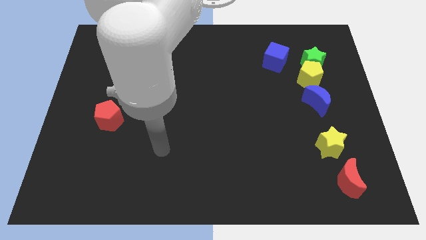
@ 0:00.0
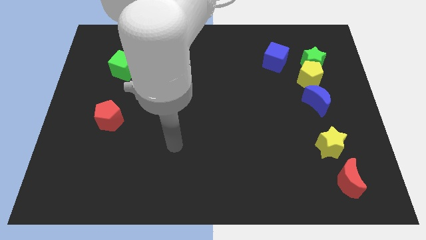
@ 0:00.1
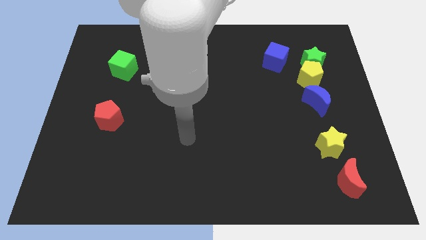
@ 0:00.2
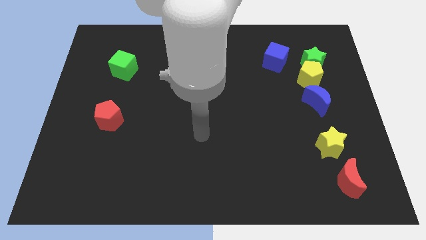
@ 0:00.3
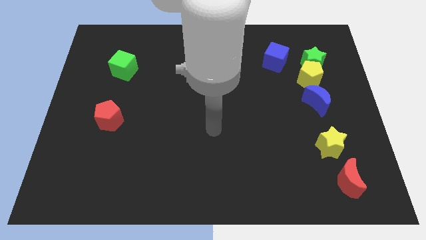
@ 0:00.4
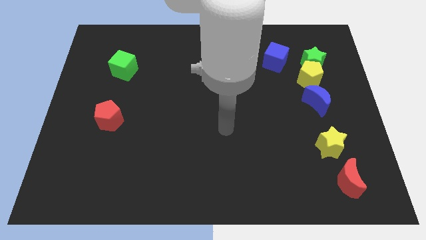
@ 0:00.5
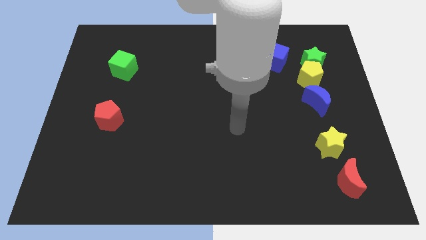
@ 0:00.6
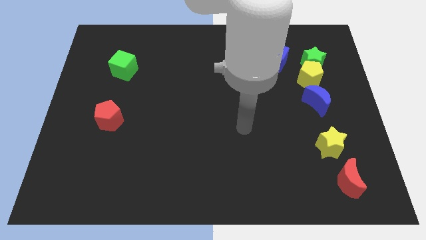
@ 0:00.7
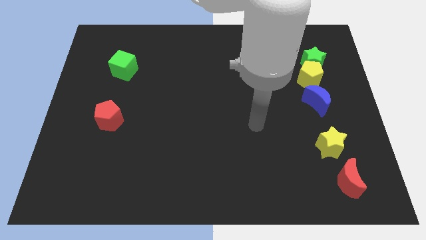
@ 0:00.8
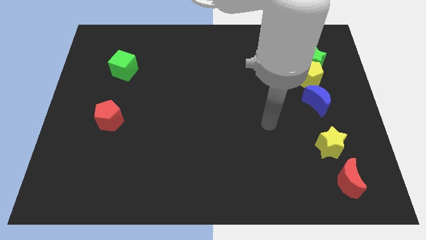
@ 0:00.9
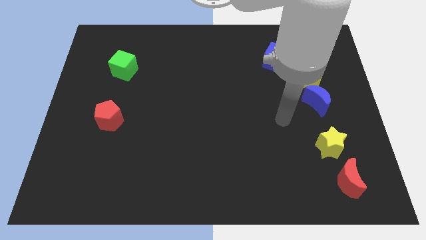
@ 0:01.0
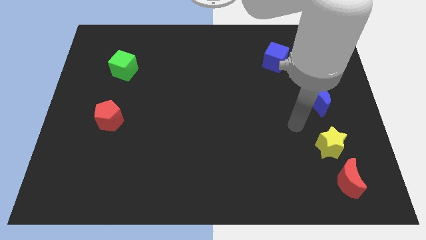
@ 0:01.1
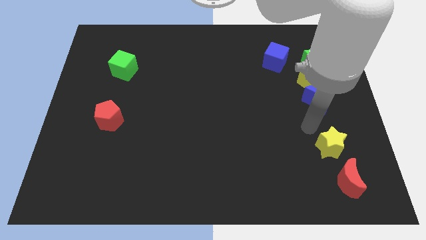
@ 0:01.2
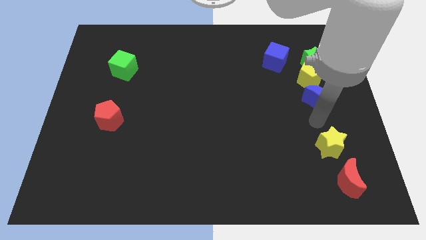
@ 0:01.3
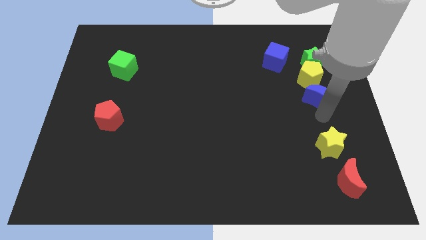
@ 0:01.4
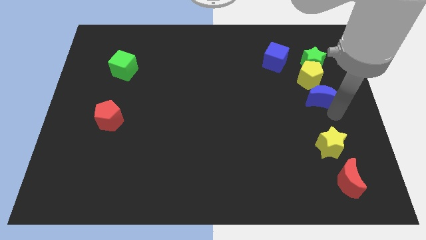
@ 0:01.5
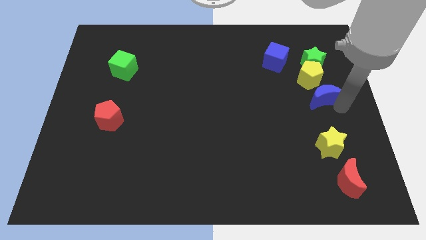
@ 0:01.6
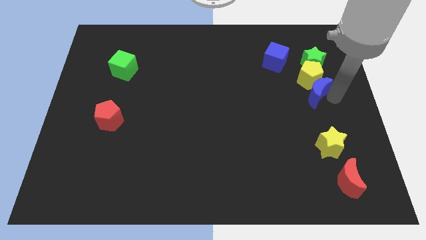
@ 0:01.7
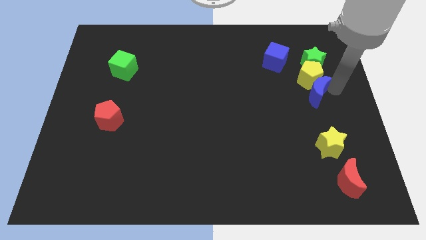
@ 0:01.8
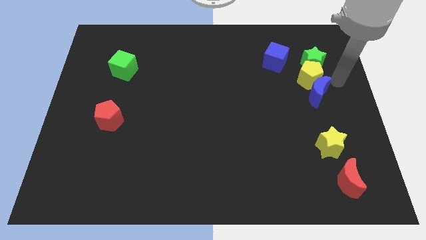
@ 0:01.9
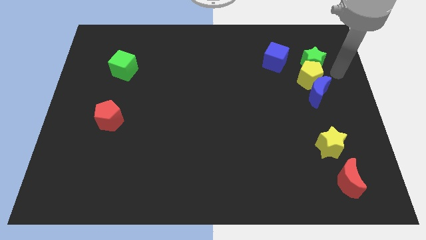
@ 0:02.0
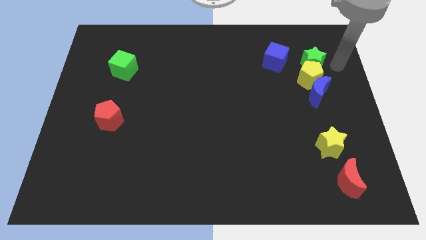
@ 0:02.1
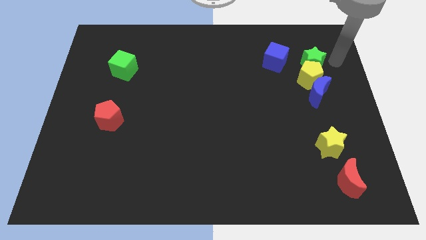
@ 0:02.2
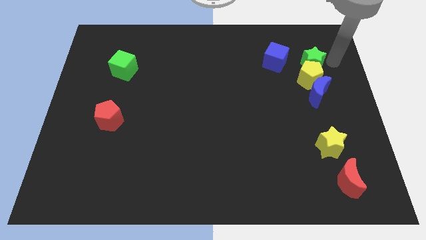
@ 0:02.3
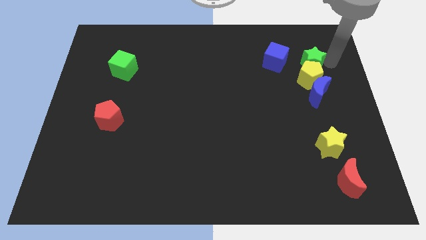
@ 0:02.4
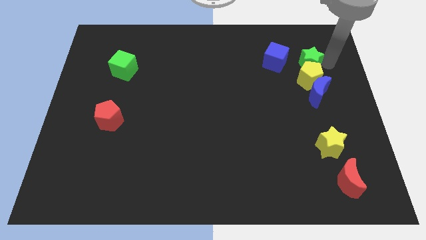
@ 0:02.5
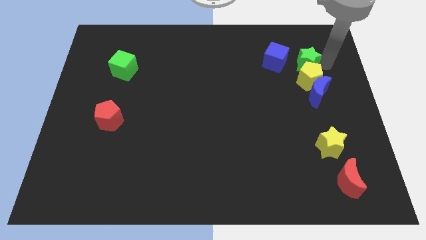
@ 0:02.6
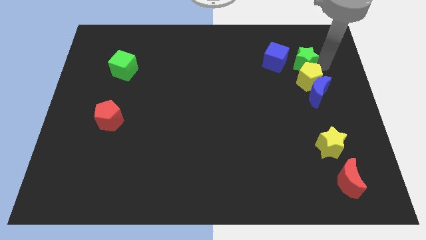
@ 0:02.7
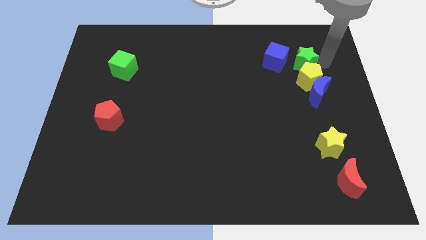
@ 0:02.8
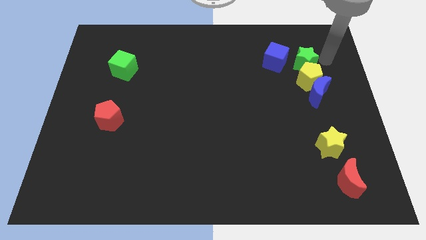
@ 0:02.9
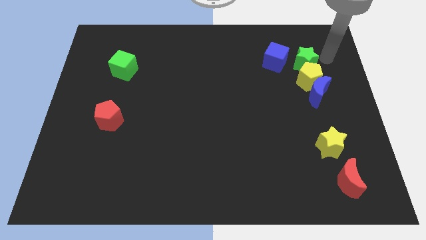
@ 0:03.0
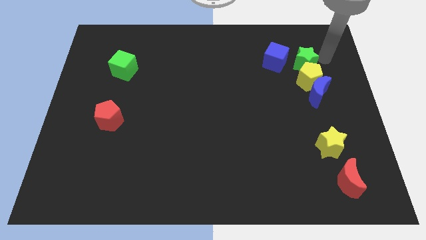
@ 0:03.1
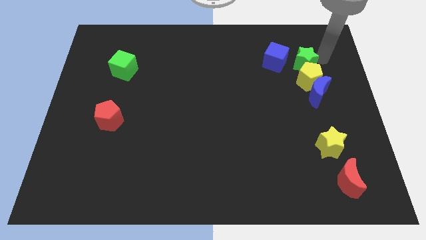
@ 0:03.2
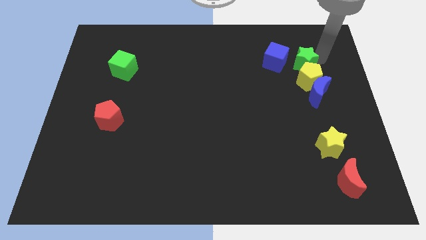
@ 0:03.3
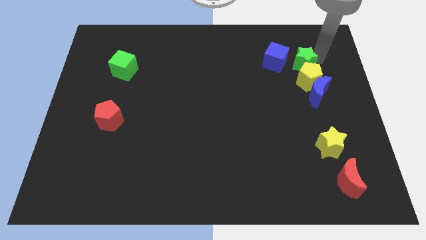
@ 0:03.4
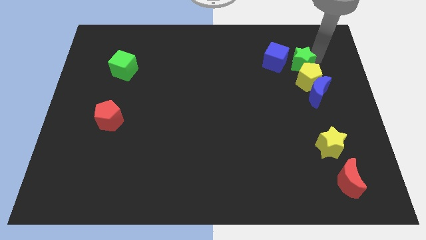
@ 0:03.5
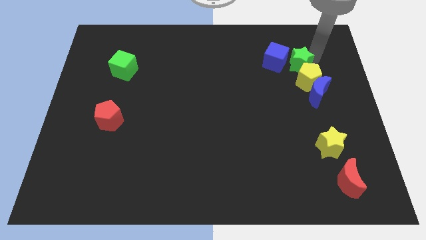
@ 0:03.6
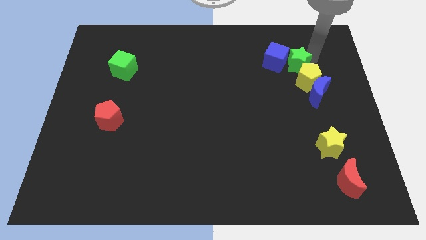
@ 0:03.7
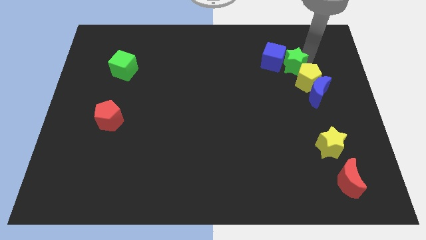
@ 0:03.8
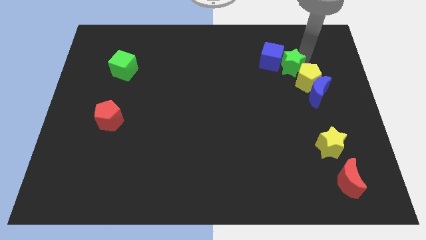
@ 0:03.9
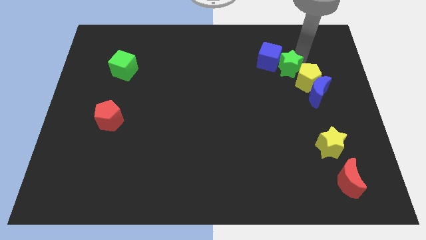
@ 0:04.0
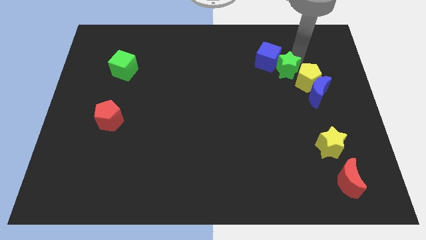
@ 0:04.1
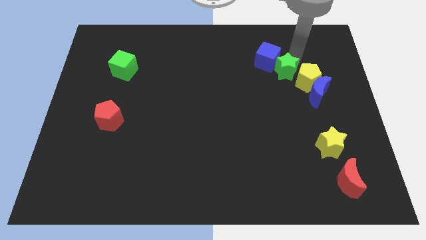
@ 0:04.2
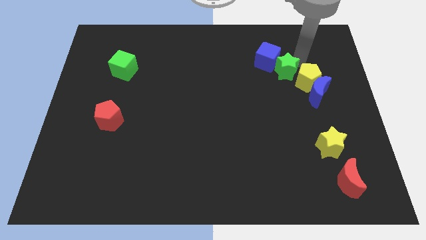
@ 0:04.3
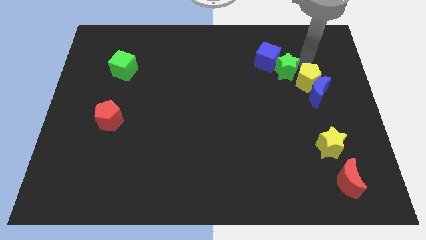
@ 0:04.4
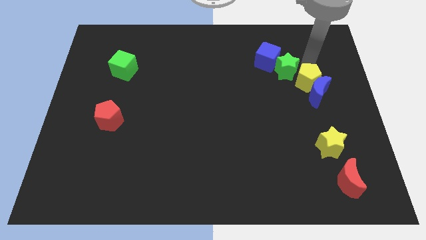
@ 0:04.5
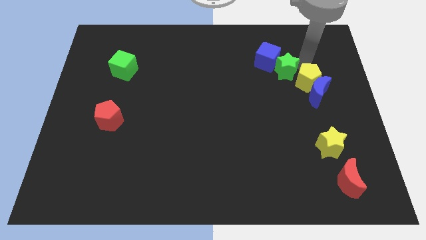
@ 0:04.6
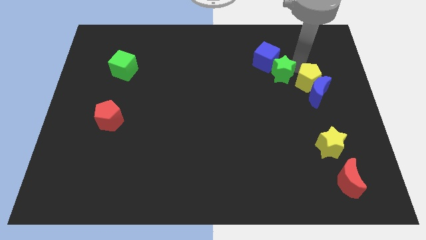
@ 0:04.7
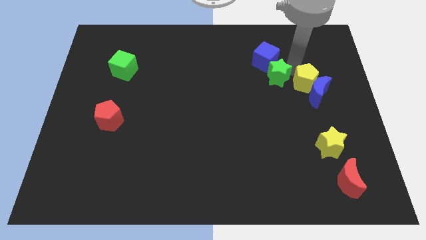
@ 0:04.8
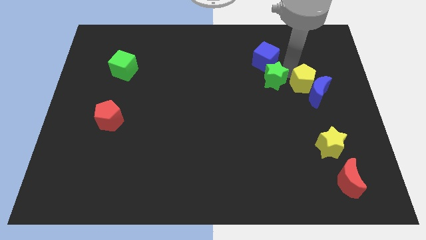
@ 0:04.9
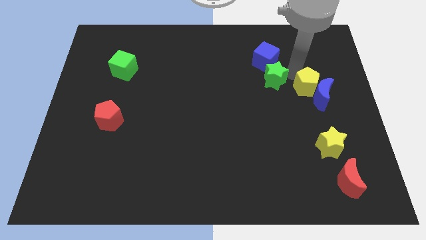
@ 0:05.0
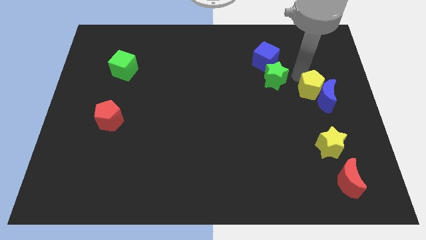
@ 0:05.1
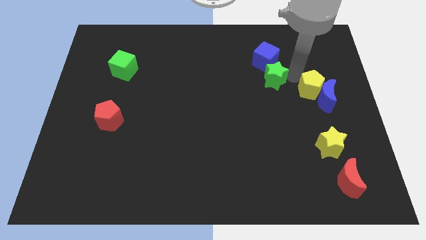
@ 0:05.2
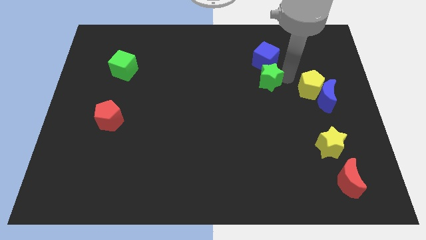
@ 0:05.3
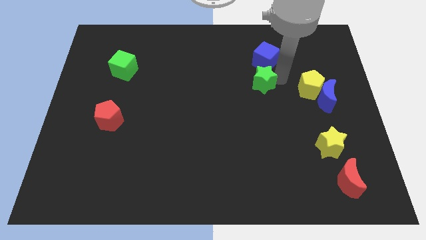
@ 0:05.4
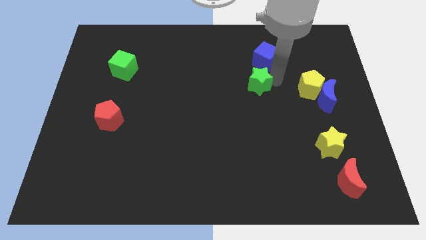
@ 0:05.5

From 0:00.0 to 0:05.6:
slide the green star to the middle

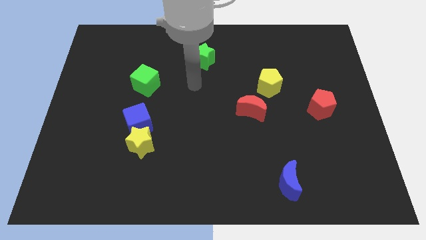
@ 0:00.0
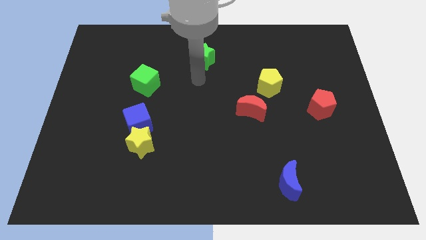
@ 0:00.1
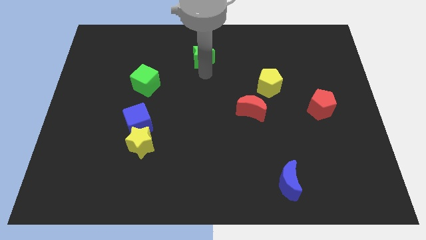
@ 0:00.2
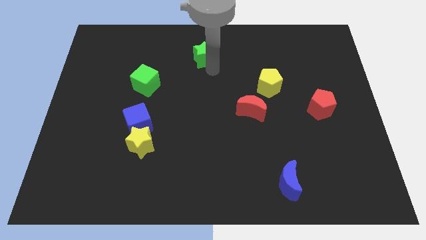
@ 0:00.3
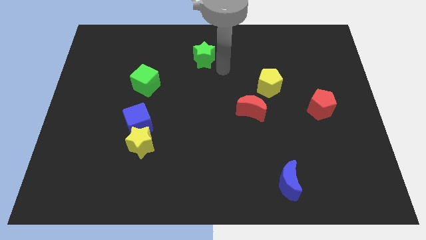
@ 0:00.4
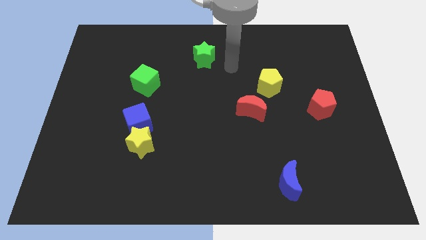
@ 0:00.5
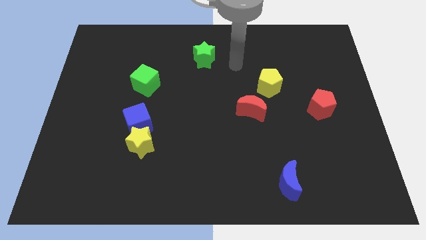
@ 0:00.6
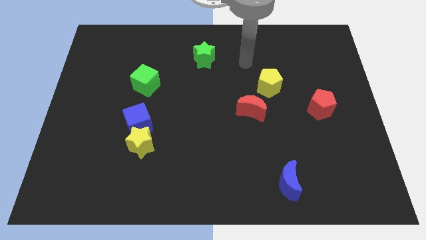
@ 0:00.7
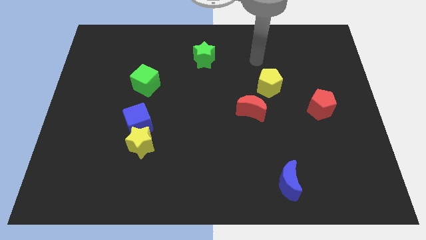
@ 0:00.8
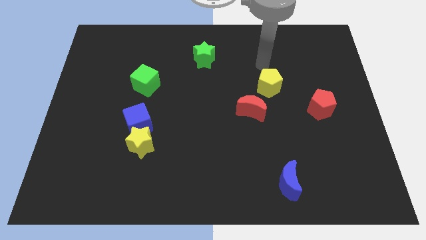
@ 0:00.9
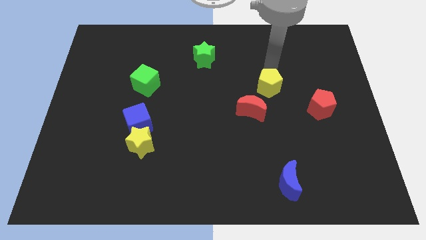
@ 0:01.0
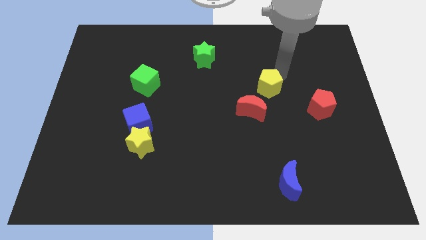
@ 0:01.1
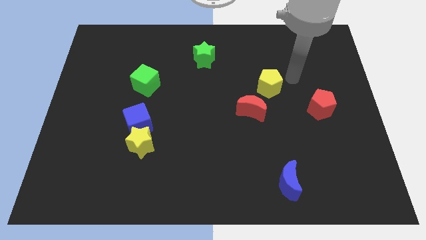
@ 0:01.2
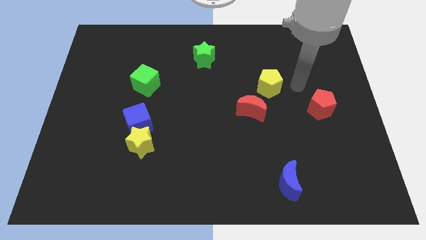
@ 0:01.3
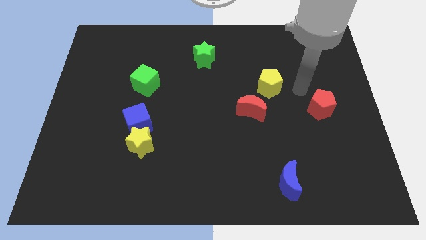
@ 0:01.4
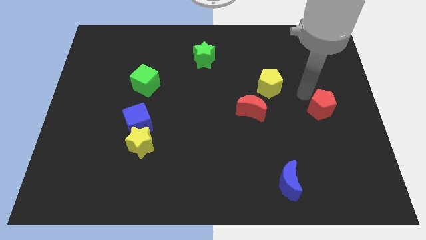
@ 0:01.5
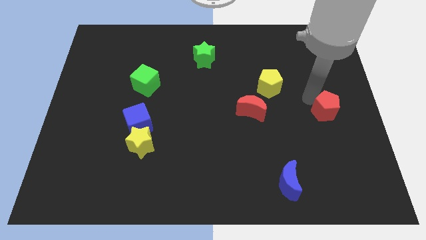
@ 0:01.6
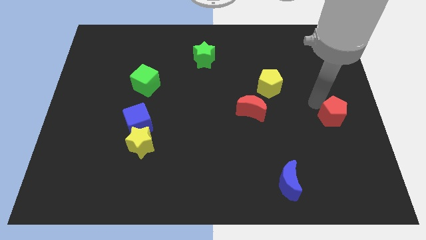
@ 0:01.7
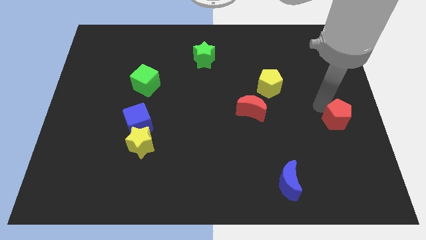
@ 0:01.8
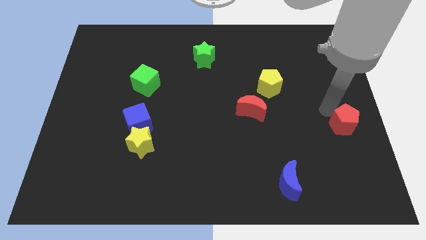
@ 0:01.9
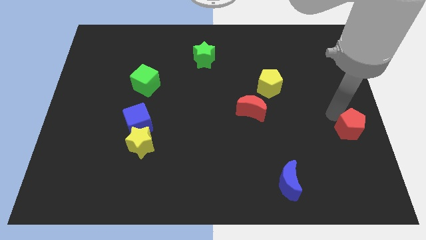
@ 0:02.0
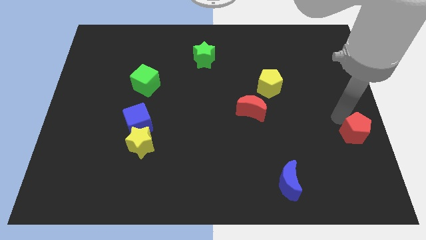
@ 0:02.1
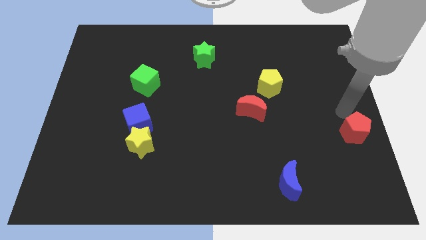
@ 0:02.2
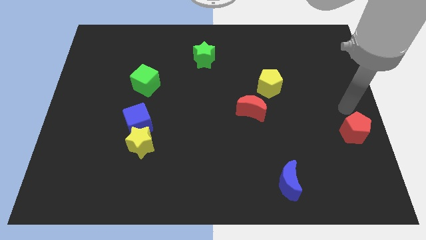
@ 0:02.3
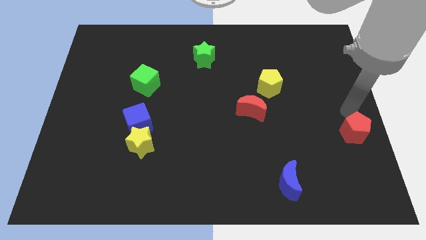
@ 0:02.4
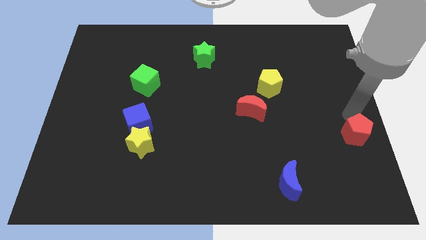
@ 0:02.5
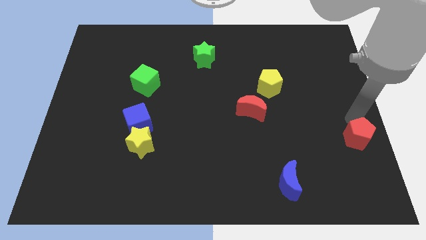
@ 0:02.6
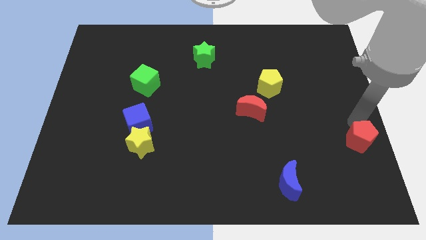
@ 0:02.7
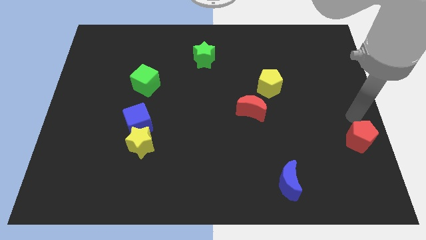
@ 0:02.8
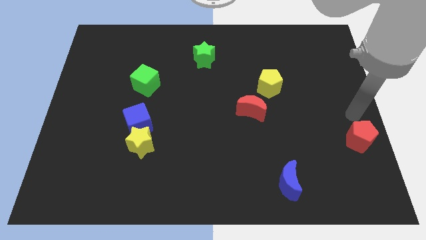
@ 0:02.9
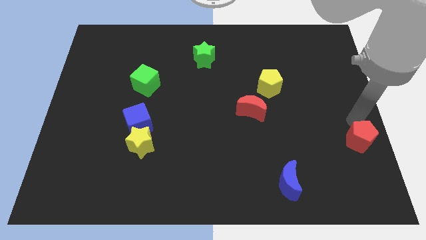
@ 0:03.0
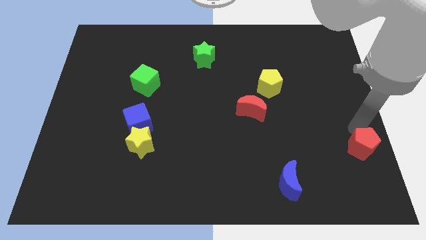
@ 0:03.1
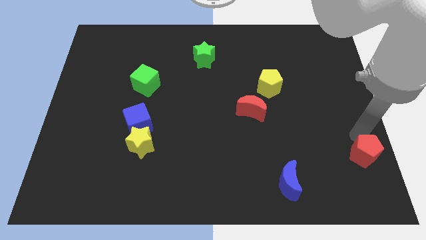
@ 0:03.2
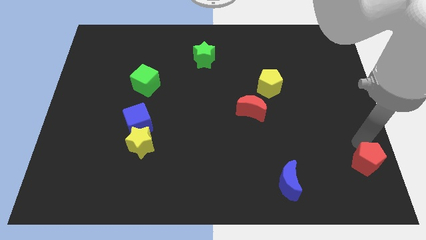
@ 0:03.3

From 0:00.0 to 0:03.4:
put the red pentagon to the bottom right of the board
